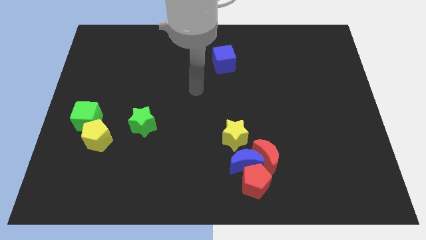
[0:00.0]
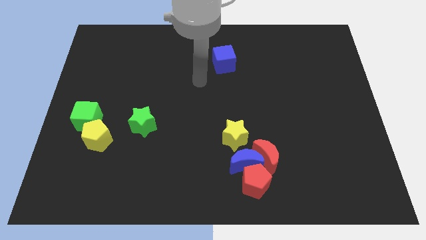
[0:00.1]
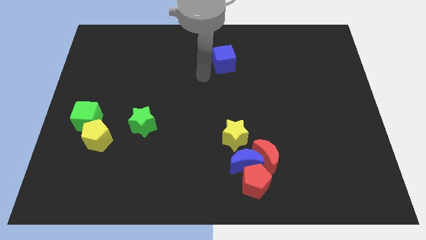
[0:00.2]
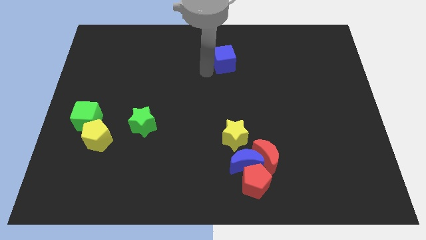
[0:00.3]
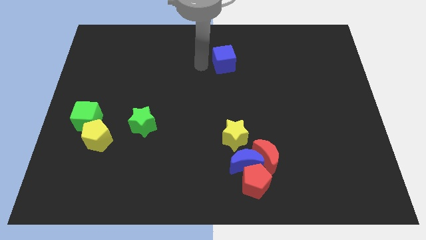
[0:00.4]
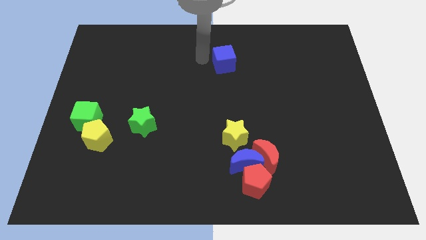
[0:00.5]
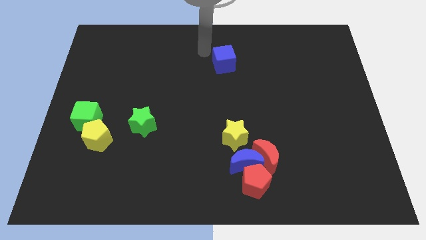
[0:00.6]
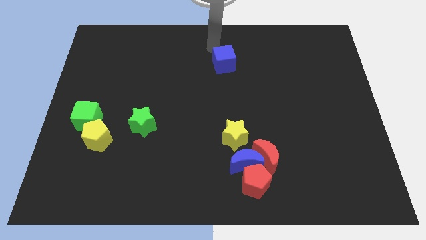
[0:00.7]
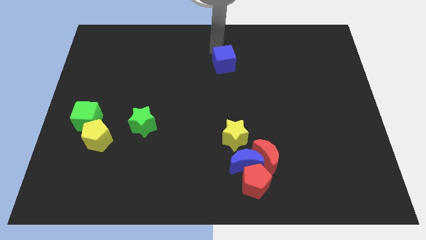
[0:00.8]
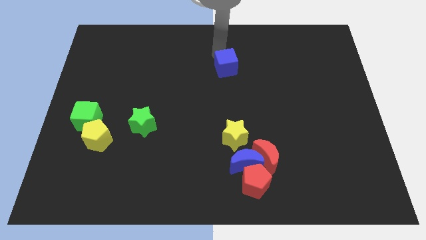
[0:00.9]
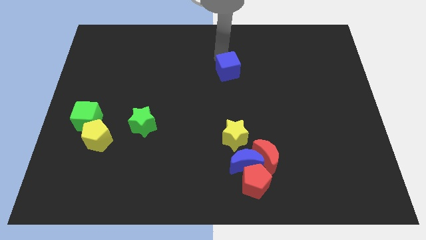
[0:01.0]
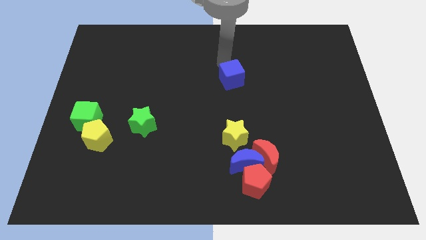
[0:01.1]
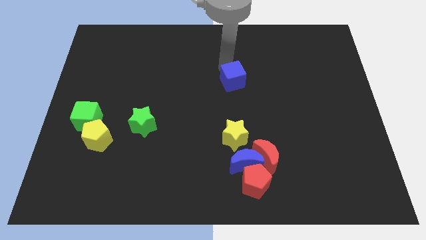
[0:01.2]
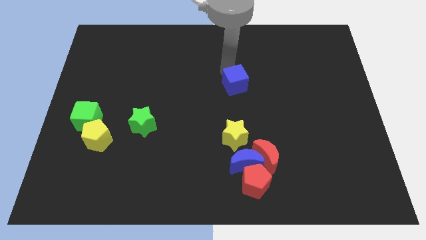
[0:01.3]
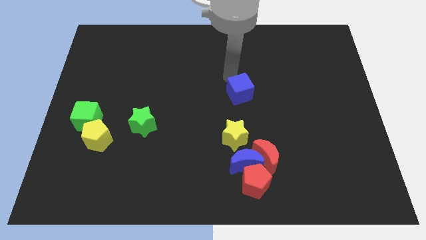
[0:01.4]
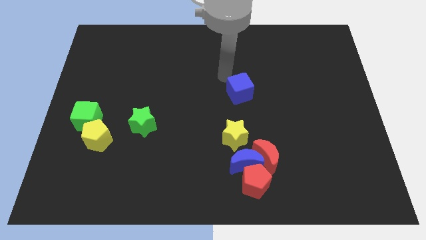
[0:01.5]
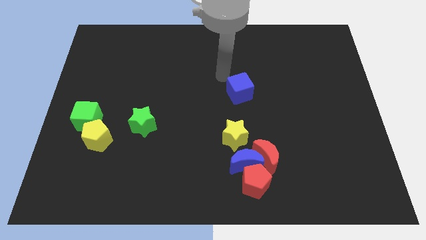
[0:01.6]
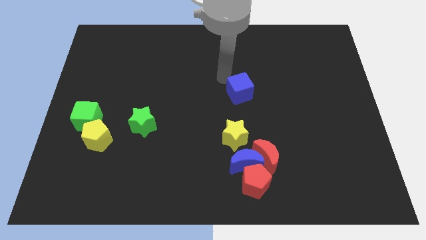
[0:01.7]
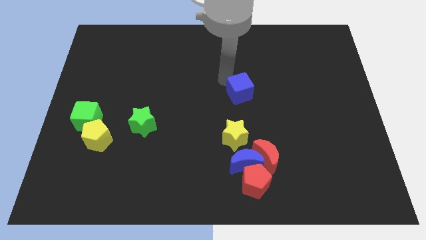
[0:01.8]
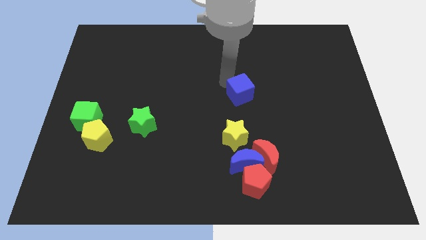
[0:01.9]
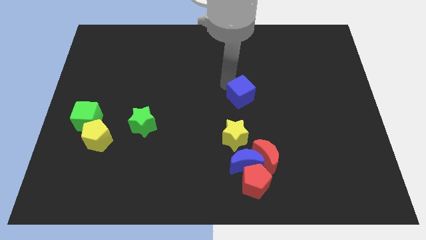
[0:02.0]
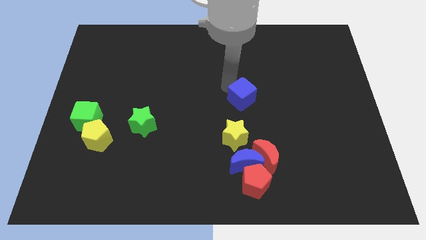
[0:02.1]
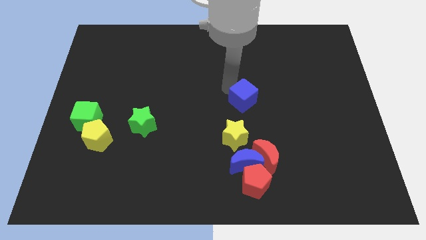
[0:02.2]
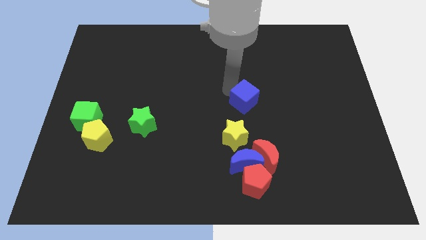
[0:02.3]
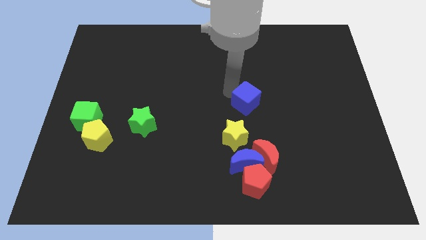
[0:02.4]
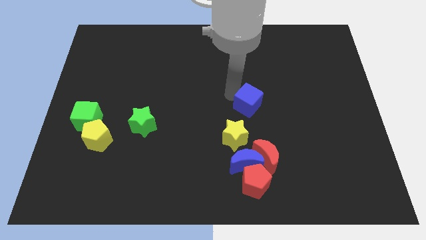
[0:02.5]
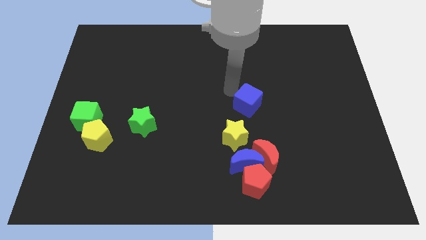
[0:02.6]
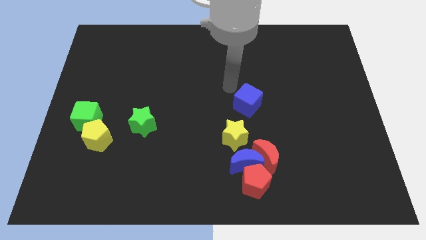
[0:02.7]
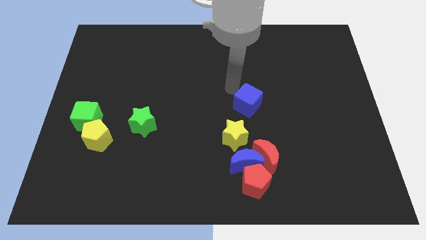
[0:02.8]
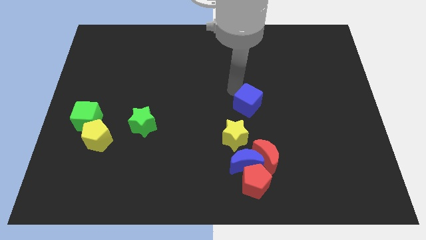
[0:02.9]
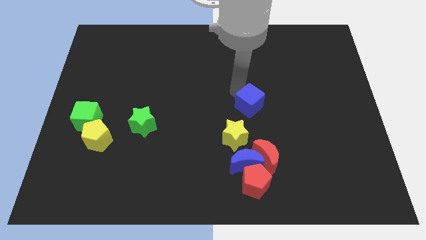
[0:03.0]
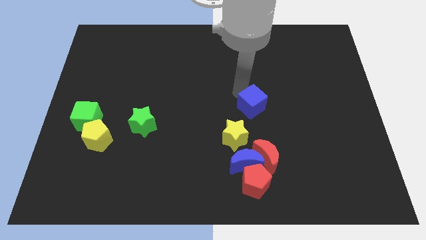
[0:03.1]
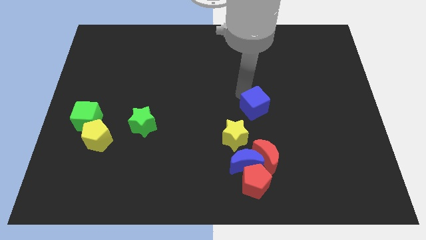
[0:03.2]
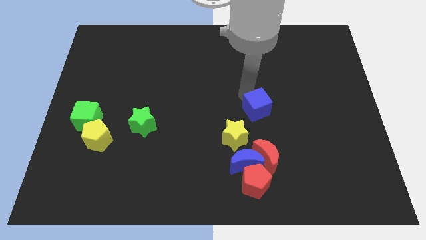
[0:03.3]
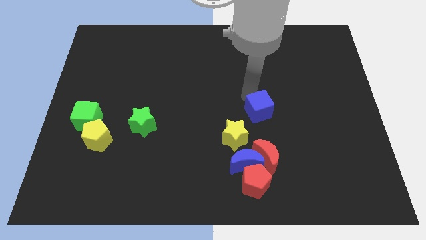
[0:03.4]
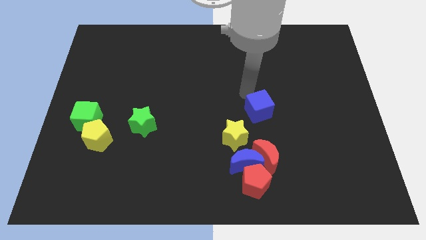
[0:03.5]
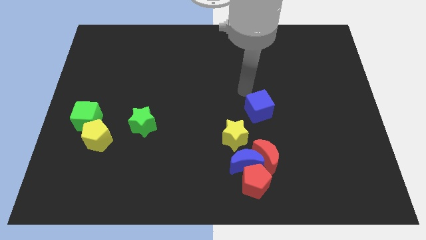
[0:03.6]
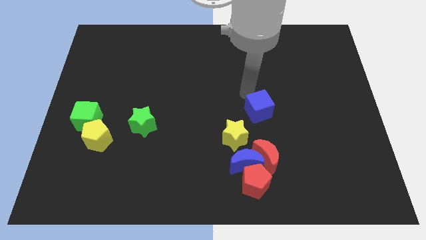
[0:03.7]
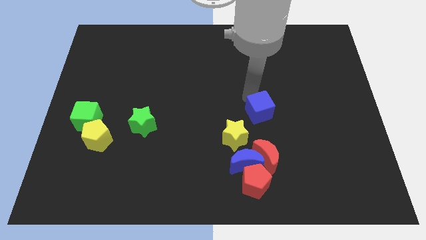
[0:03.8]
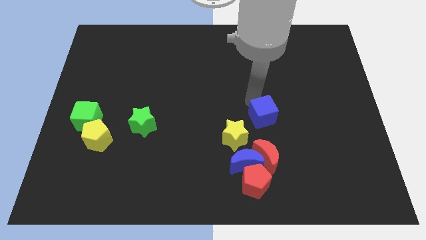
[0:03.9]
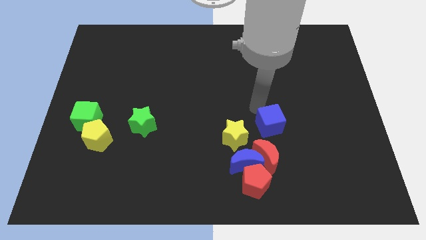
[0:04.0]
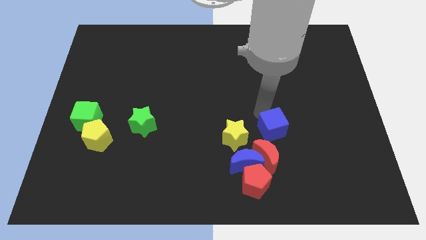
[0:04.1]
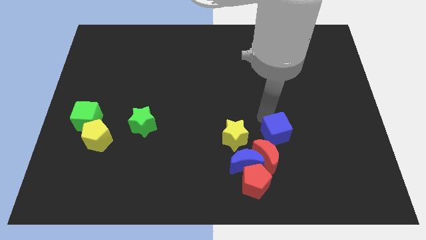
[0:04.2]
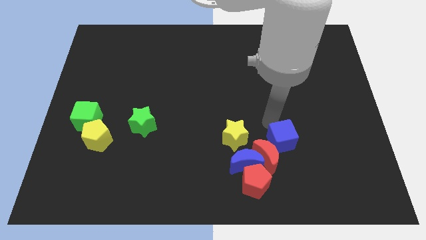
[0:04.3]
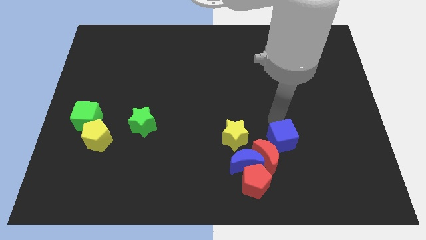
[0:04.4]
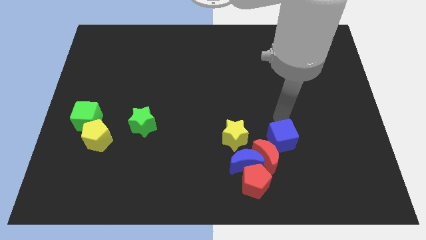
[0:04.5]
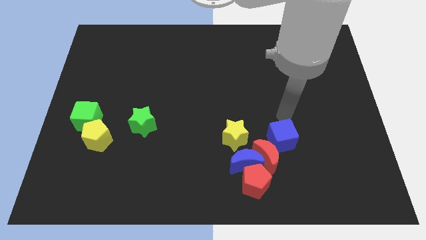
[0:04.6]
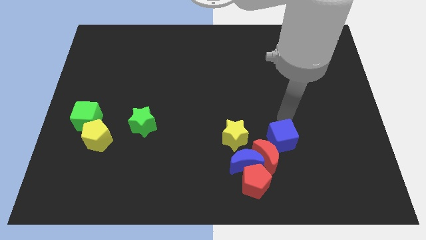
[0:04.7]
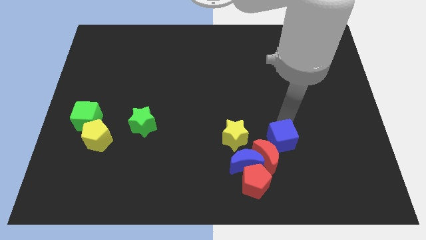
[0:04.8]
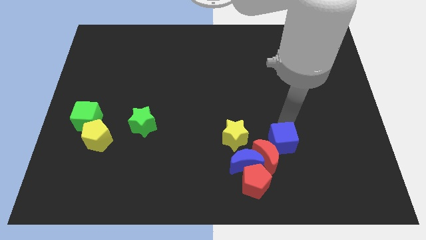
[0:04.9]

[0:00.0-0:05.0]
slide the blue cube to the top right of the red pentagon

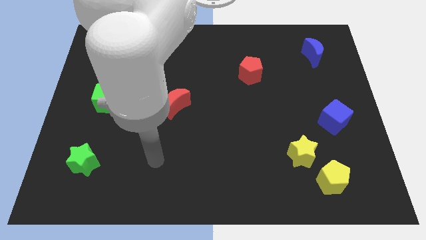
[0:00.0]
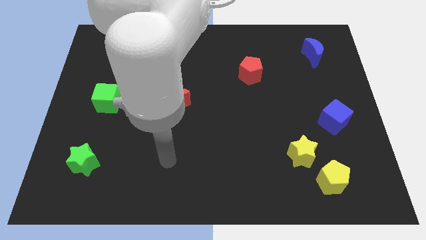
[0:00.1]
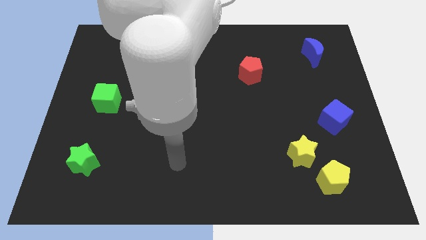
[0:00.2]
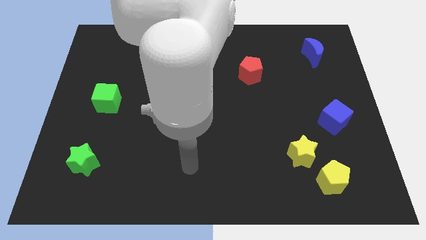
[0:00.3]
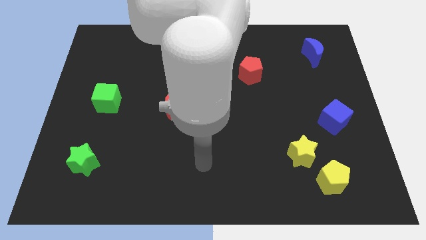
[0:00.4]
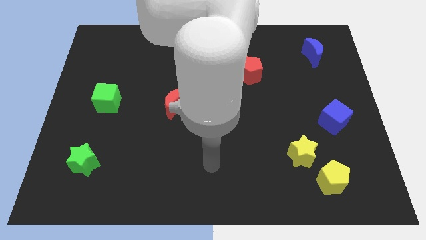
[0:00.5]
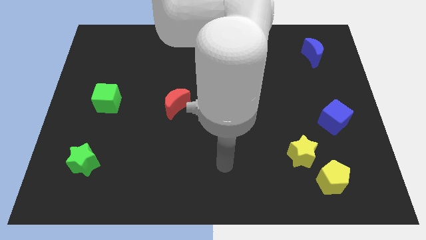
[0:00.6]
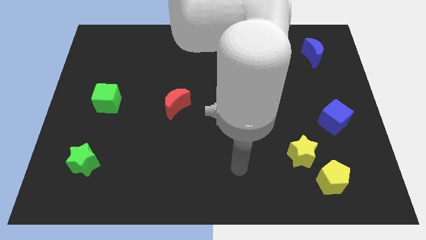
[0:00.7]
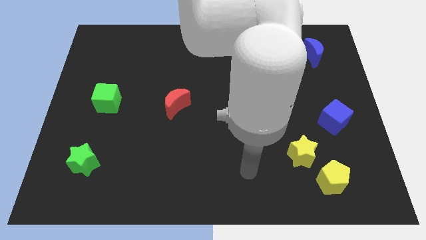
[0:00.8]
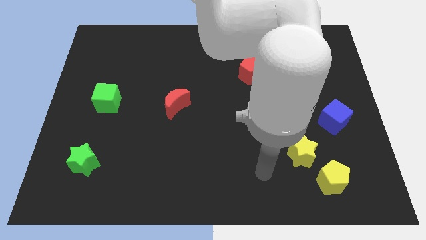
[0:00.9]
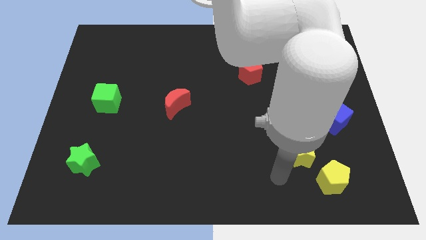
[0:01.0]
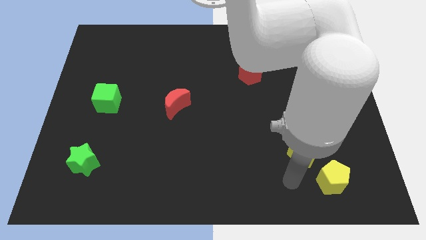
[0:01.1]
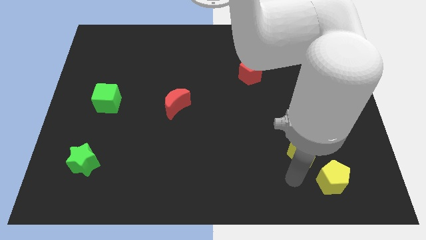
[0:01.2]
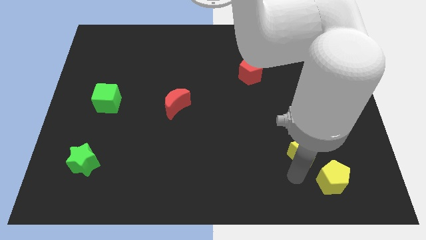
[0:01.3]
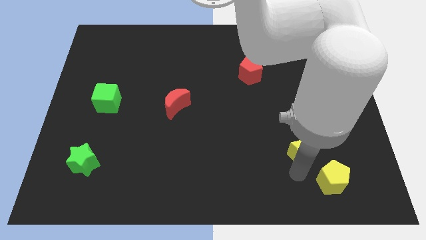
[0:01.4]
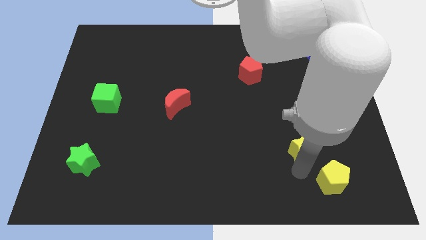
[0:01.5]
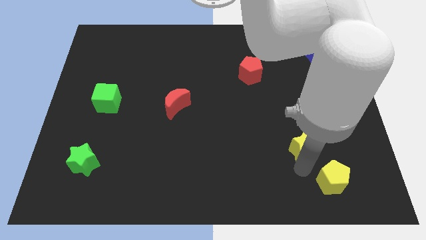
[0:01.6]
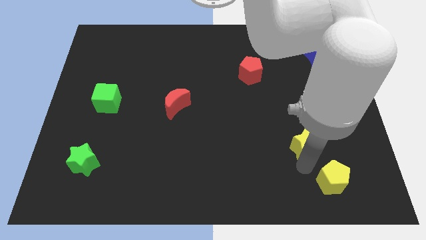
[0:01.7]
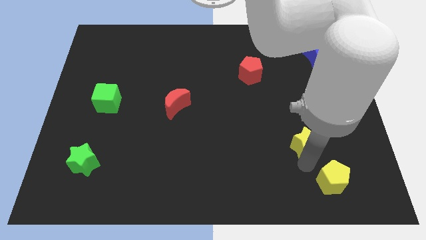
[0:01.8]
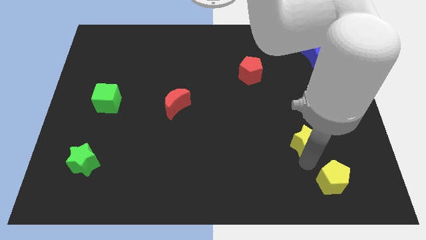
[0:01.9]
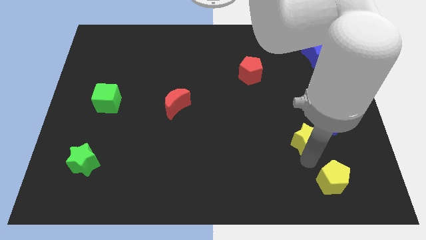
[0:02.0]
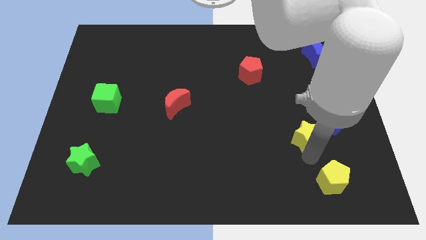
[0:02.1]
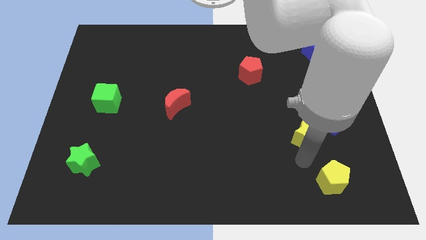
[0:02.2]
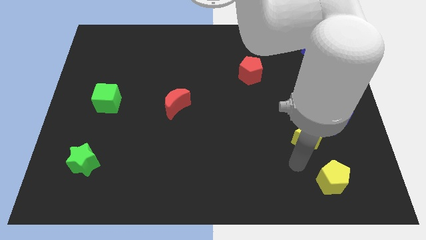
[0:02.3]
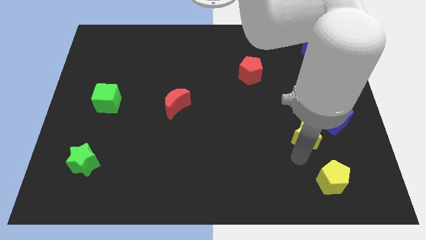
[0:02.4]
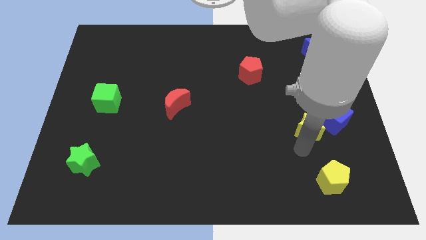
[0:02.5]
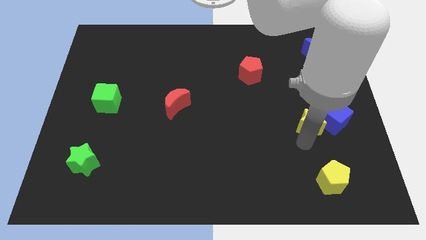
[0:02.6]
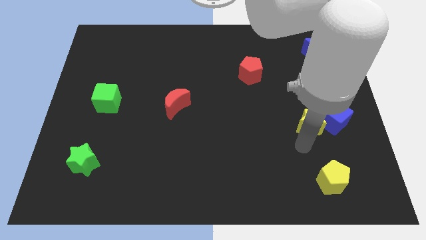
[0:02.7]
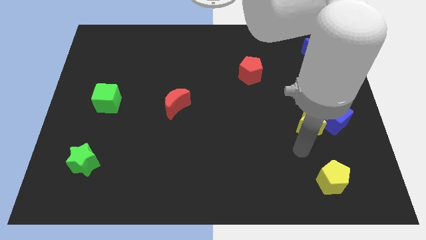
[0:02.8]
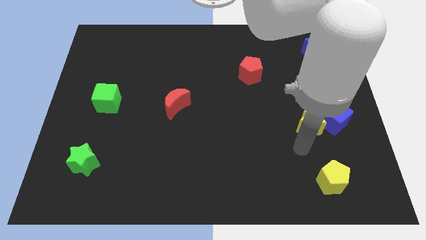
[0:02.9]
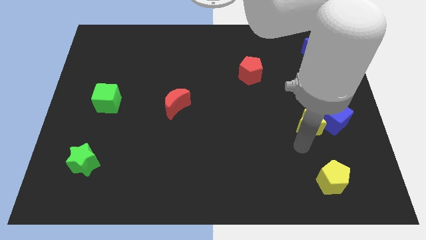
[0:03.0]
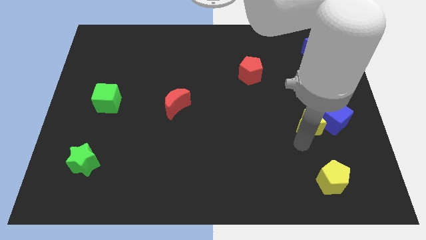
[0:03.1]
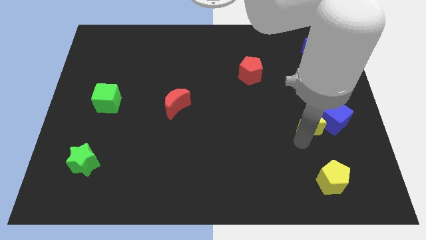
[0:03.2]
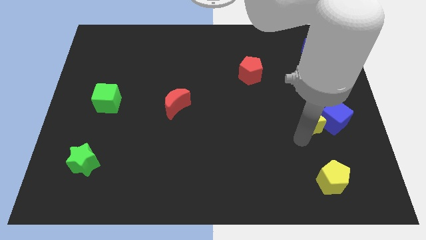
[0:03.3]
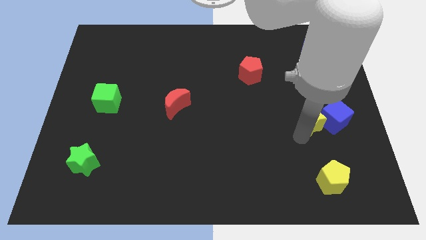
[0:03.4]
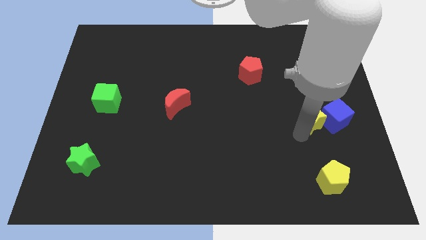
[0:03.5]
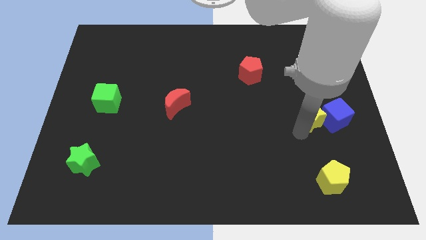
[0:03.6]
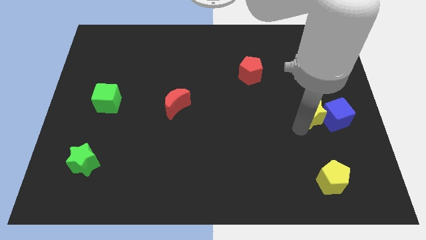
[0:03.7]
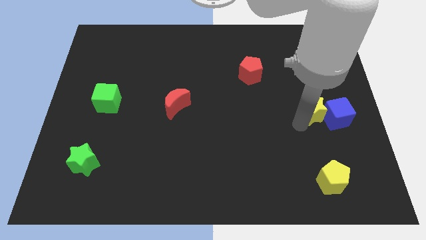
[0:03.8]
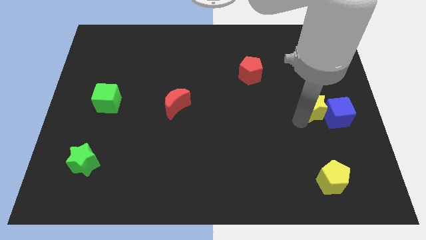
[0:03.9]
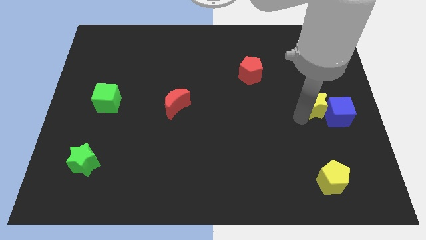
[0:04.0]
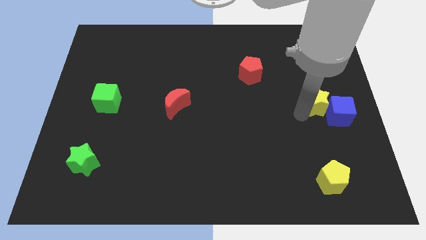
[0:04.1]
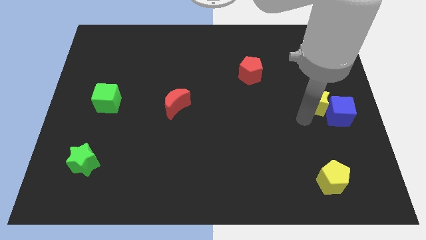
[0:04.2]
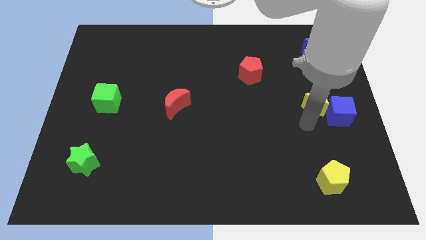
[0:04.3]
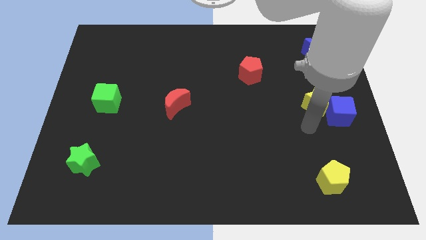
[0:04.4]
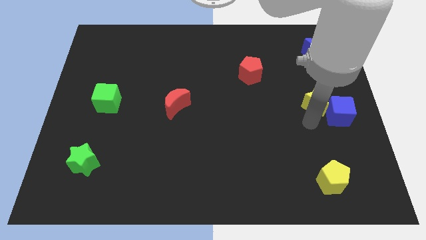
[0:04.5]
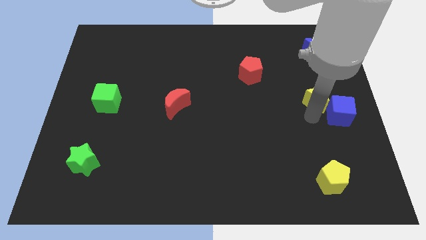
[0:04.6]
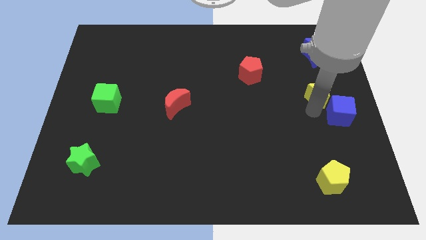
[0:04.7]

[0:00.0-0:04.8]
slide the yellow star to the bottom side of the blue moon
